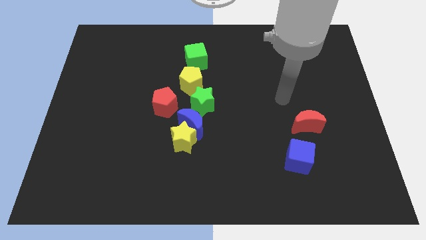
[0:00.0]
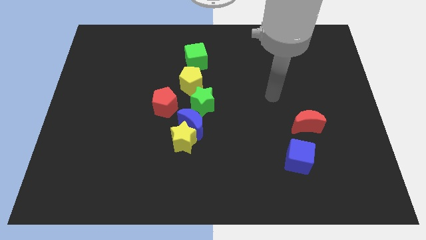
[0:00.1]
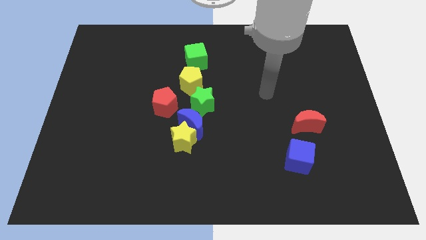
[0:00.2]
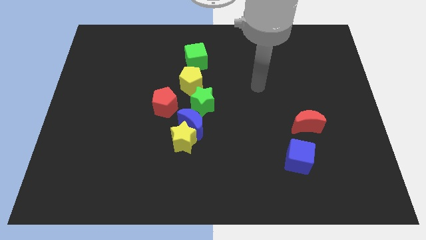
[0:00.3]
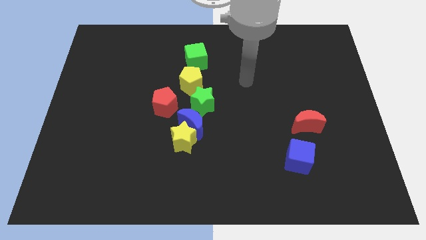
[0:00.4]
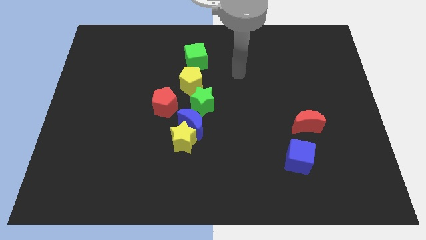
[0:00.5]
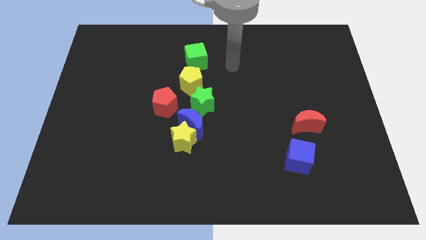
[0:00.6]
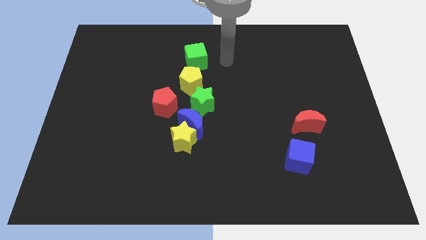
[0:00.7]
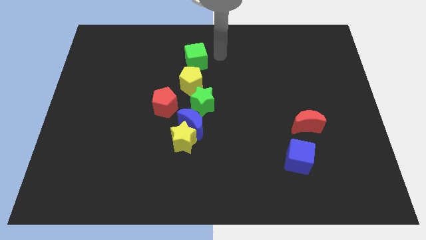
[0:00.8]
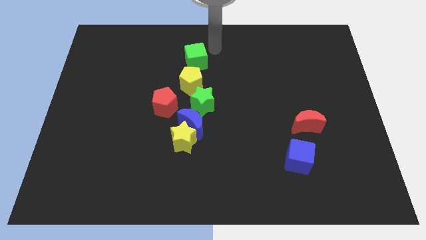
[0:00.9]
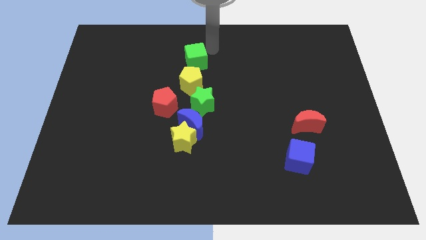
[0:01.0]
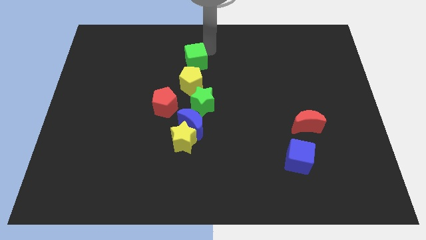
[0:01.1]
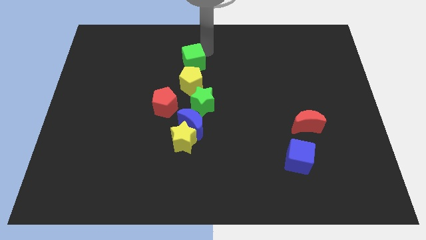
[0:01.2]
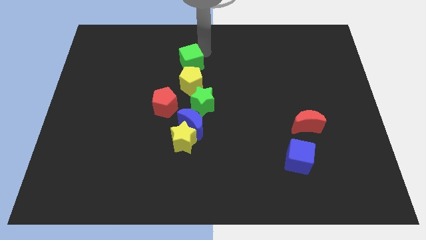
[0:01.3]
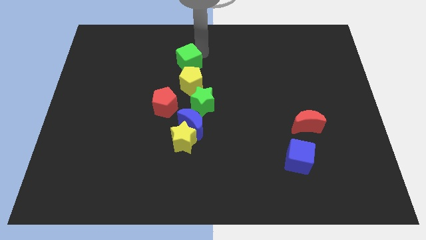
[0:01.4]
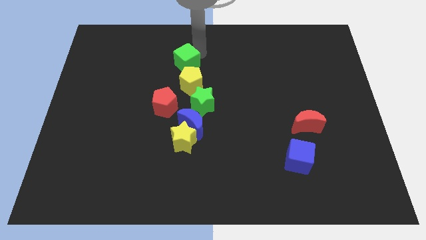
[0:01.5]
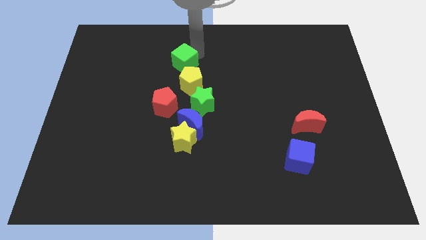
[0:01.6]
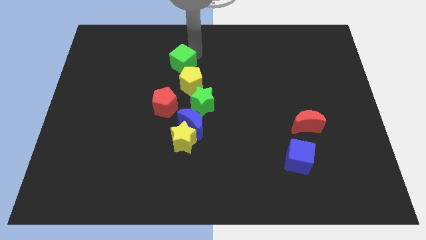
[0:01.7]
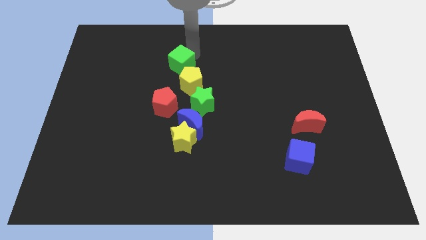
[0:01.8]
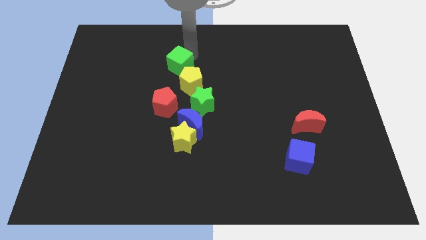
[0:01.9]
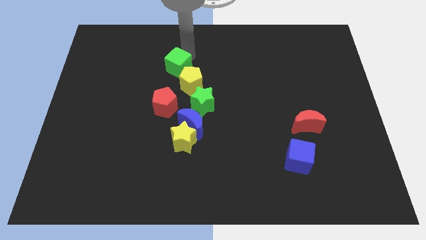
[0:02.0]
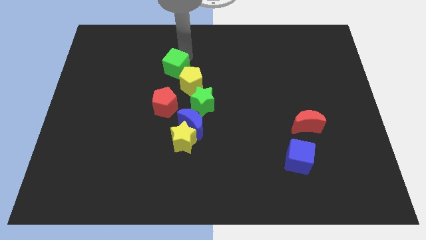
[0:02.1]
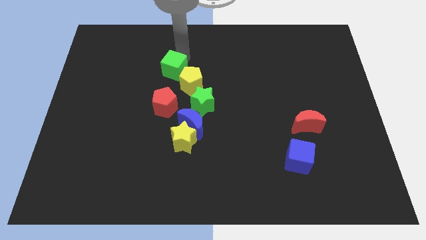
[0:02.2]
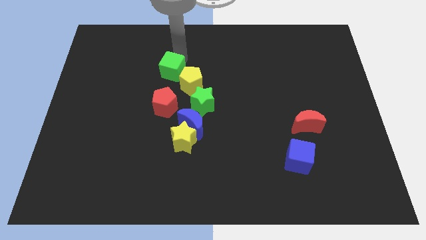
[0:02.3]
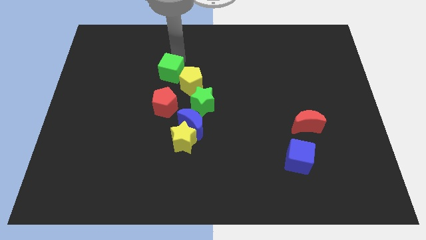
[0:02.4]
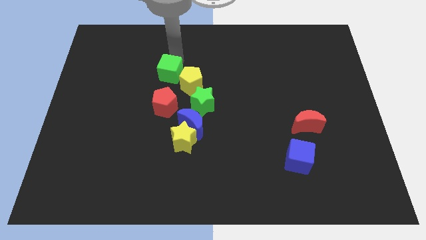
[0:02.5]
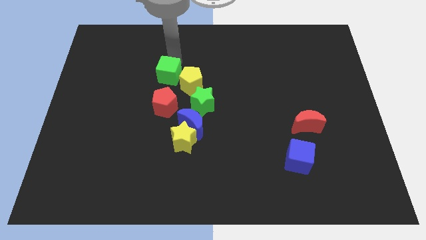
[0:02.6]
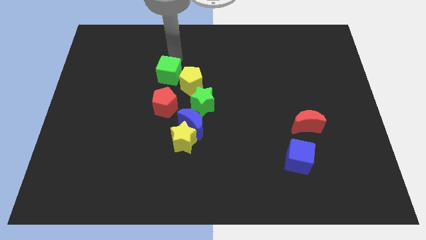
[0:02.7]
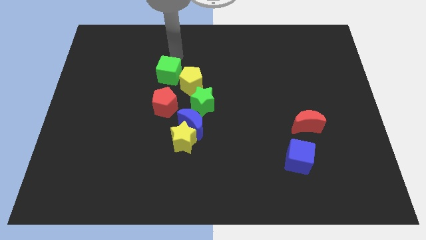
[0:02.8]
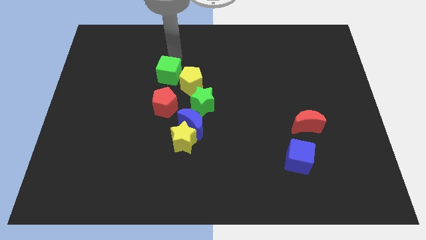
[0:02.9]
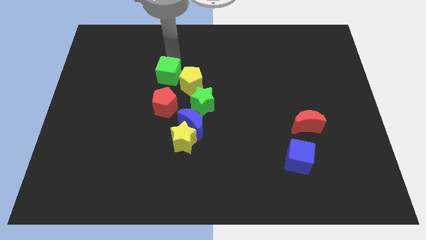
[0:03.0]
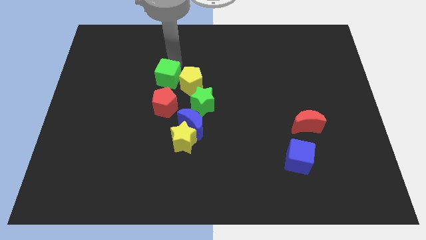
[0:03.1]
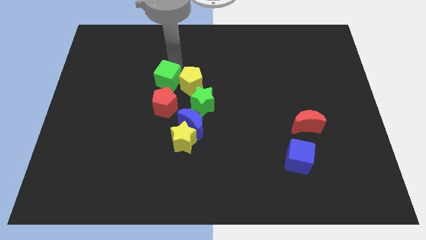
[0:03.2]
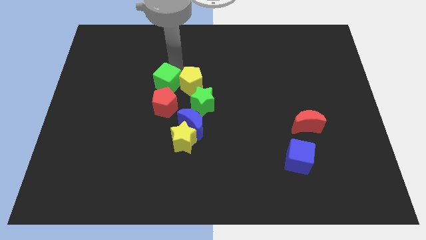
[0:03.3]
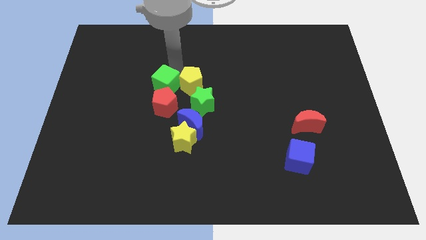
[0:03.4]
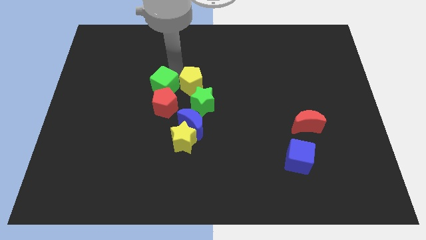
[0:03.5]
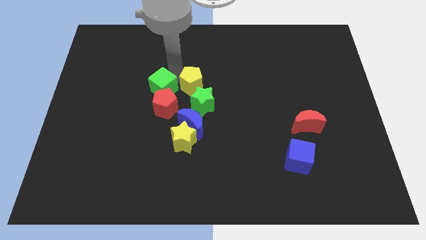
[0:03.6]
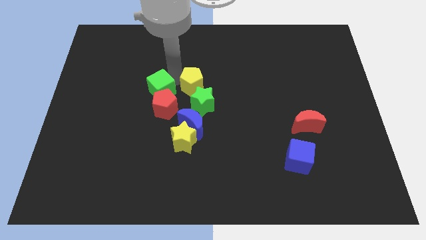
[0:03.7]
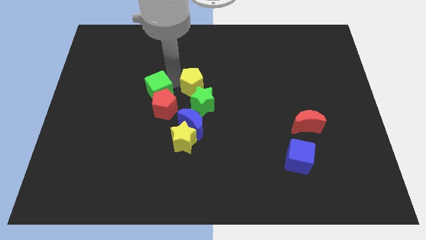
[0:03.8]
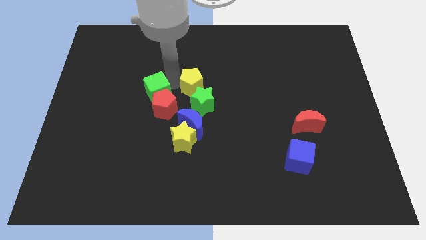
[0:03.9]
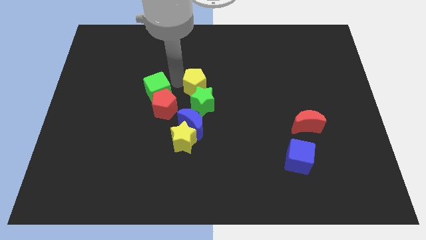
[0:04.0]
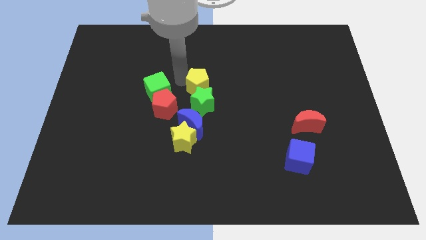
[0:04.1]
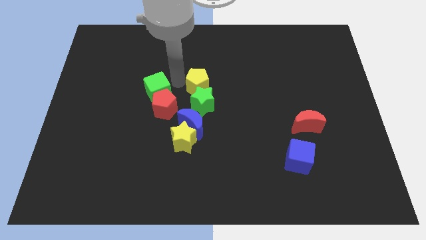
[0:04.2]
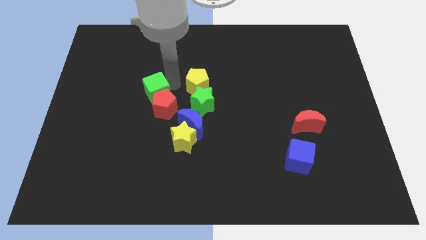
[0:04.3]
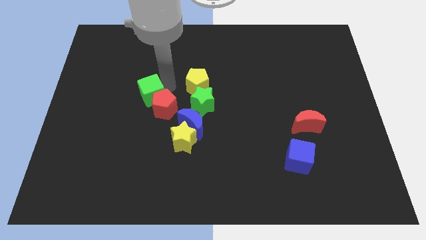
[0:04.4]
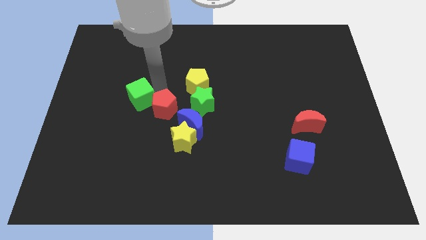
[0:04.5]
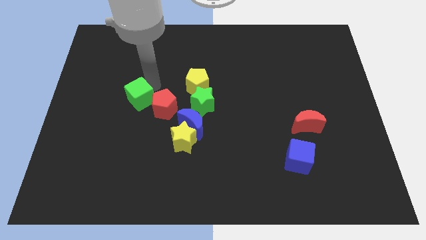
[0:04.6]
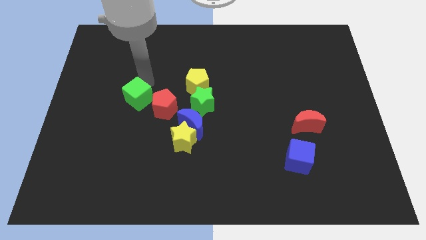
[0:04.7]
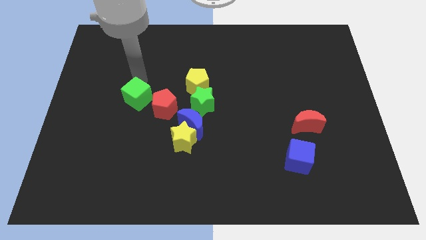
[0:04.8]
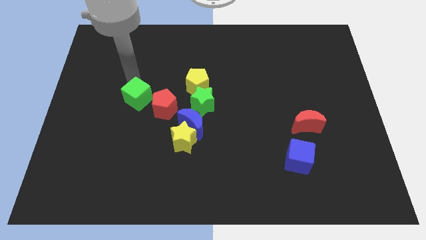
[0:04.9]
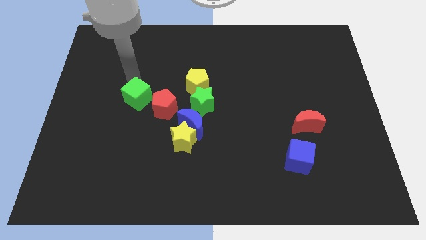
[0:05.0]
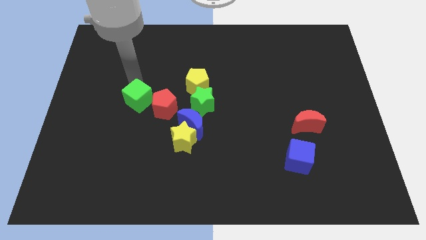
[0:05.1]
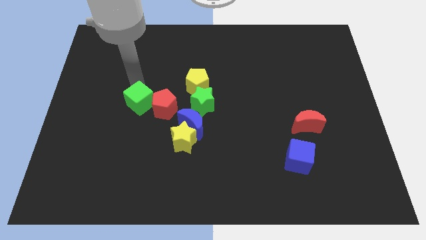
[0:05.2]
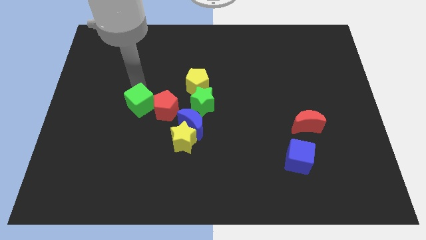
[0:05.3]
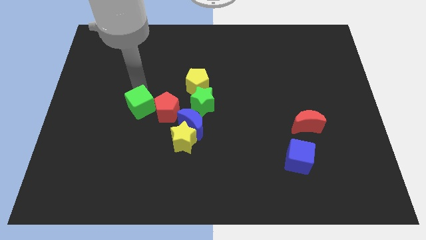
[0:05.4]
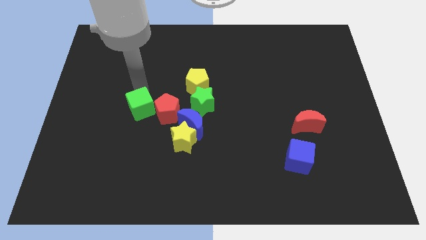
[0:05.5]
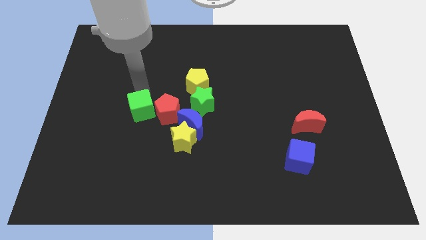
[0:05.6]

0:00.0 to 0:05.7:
put the green cube to the left side of the blue moon
